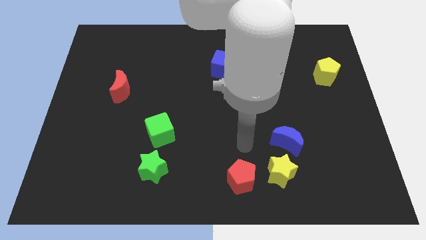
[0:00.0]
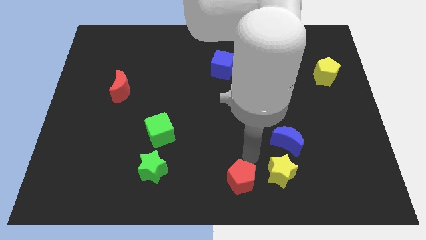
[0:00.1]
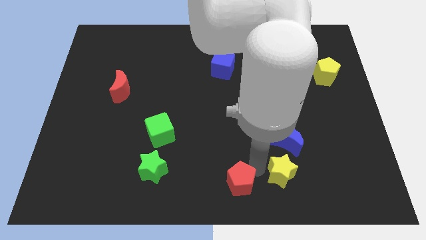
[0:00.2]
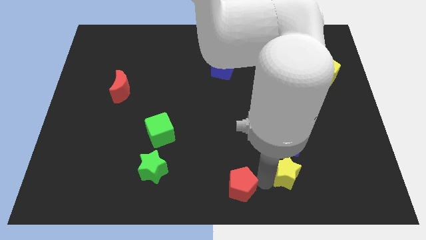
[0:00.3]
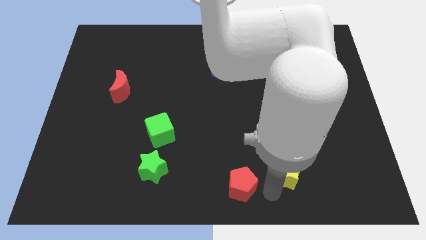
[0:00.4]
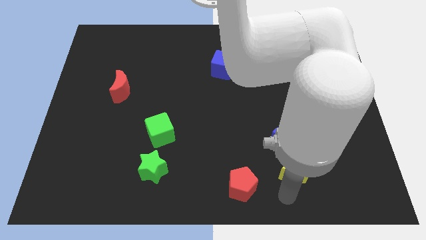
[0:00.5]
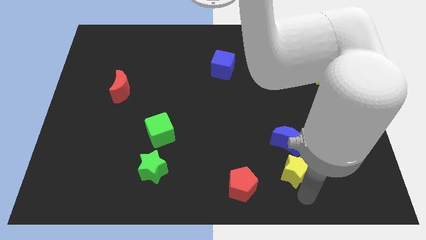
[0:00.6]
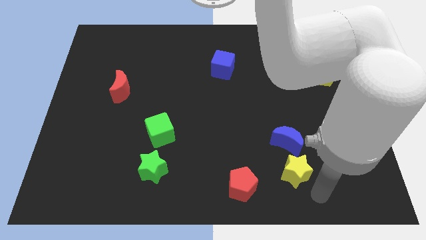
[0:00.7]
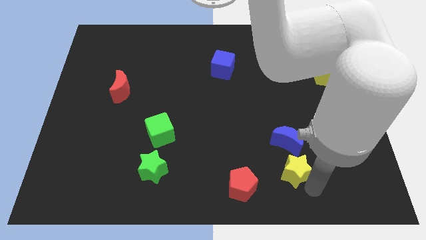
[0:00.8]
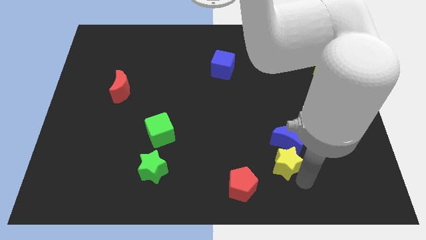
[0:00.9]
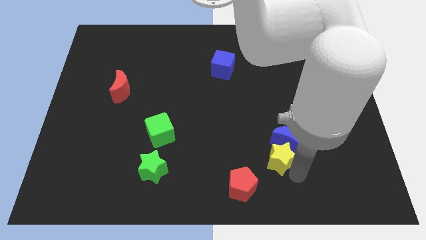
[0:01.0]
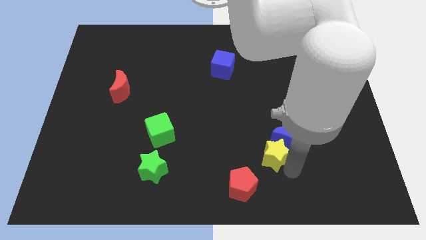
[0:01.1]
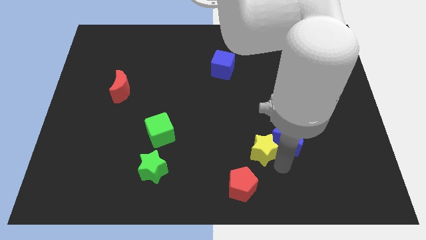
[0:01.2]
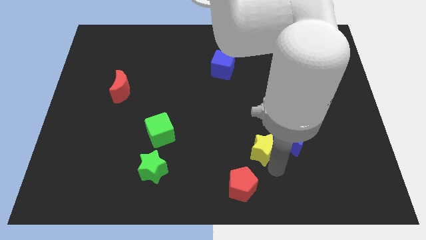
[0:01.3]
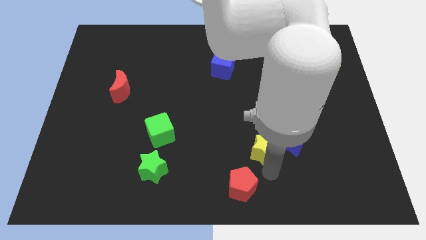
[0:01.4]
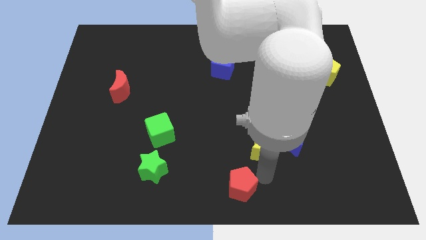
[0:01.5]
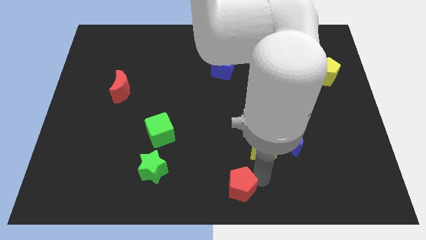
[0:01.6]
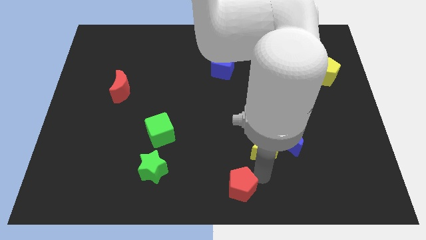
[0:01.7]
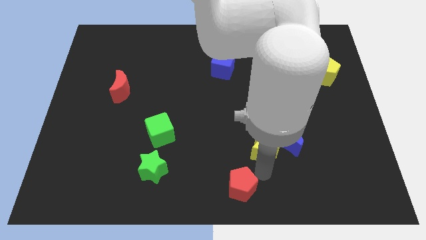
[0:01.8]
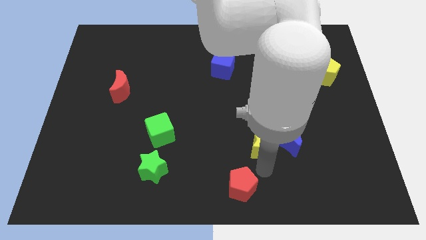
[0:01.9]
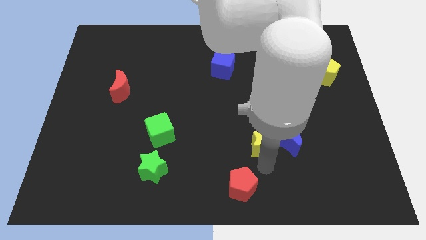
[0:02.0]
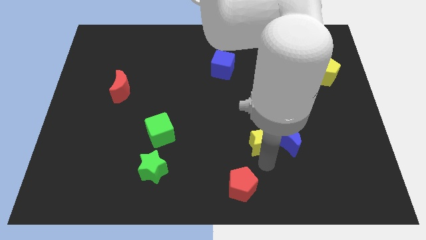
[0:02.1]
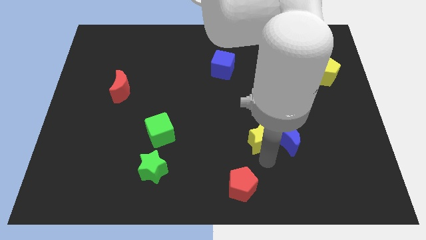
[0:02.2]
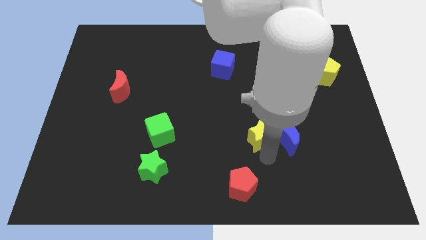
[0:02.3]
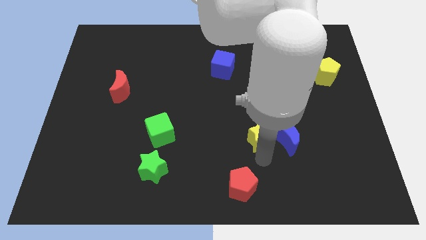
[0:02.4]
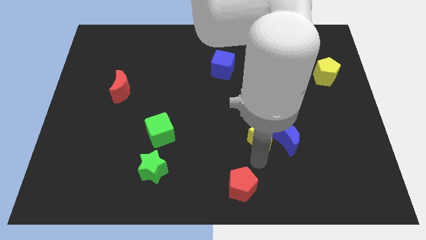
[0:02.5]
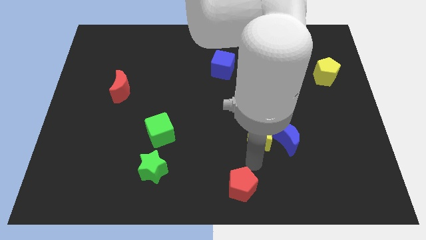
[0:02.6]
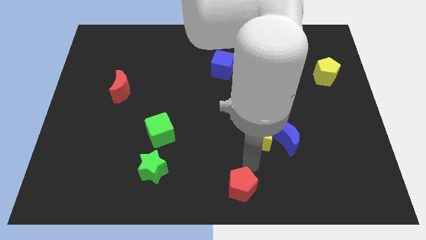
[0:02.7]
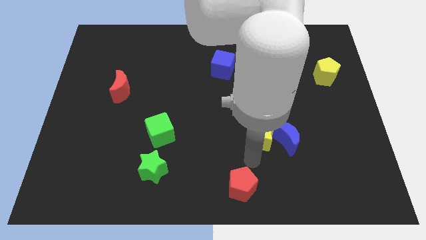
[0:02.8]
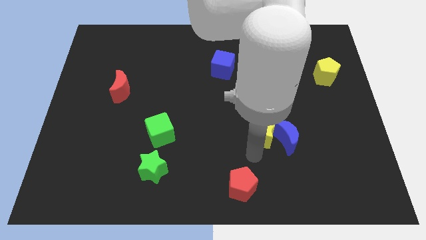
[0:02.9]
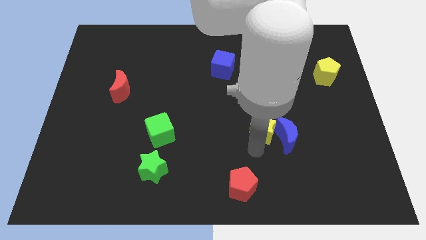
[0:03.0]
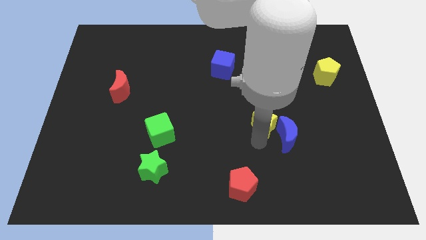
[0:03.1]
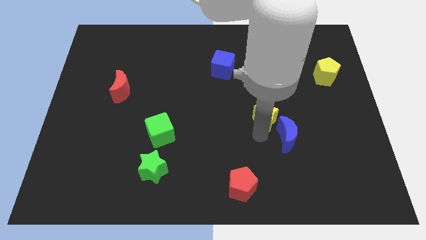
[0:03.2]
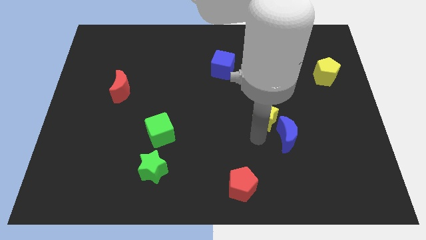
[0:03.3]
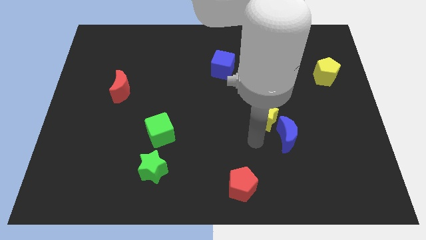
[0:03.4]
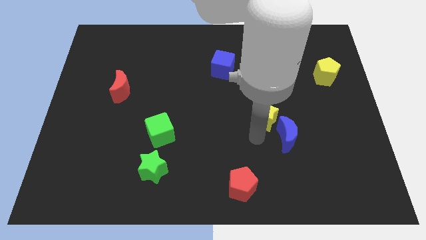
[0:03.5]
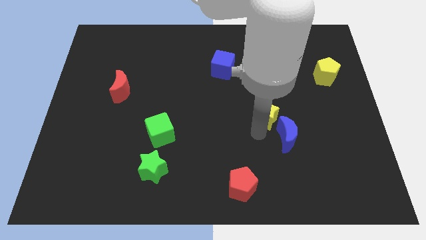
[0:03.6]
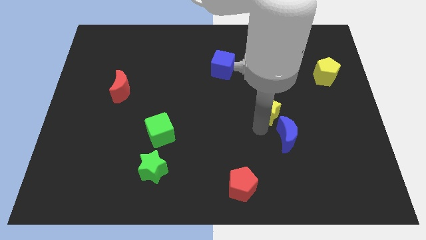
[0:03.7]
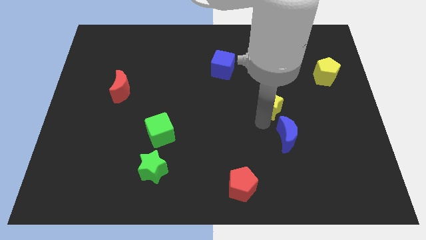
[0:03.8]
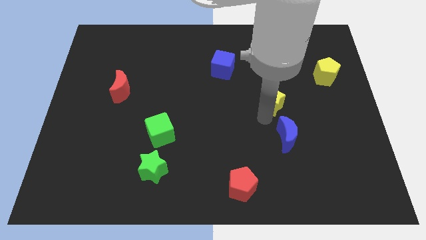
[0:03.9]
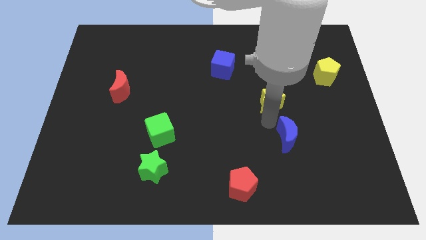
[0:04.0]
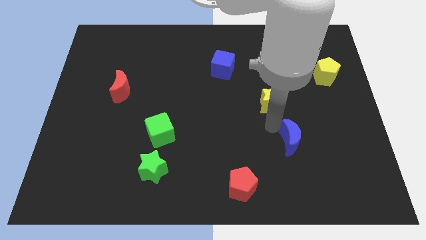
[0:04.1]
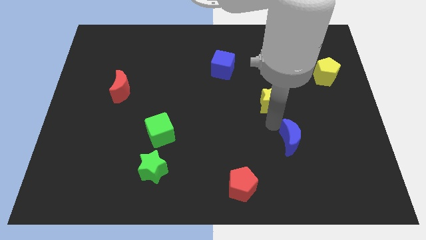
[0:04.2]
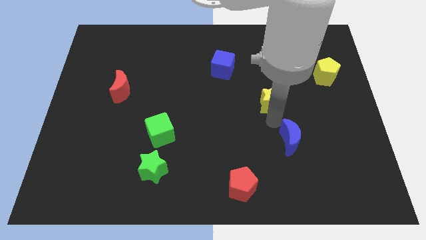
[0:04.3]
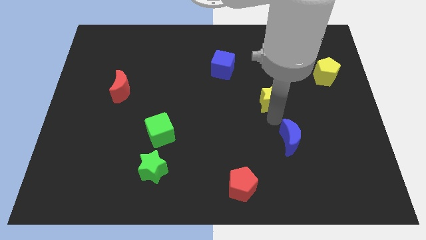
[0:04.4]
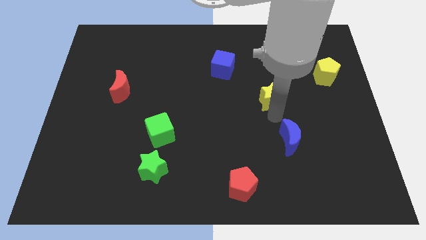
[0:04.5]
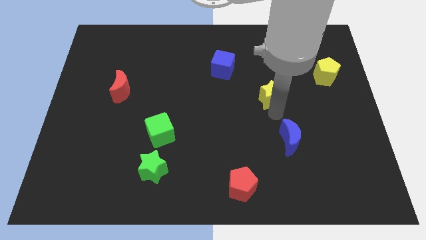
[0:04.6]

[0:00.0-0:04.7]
push the yellow star up

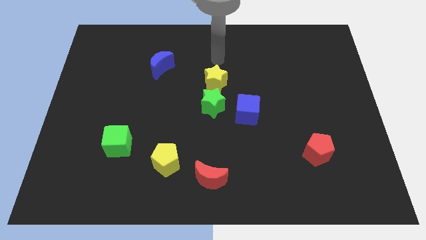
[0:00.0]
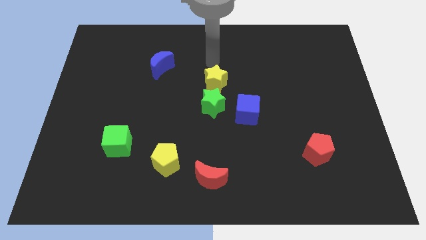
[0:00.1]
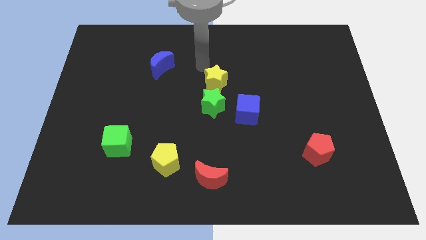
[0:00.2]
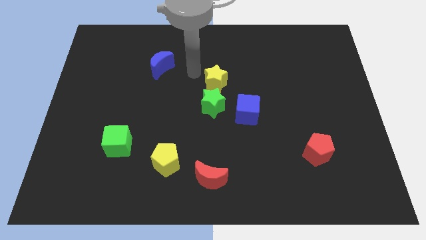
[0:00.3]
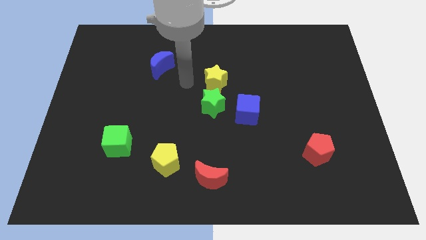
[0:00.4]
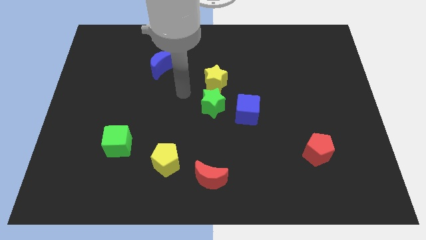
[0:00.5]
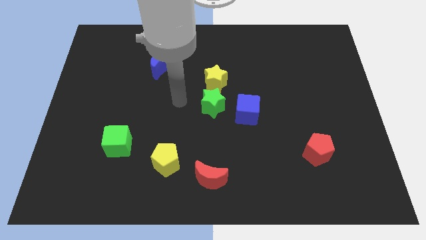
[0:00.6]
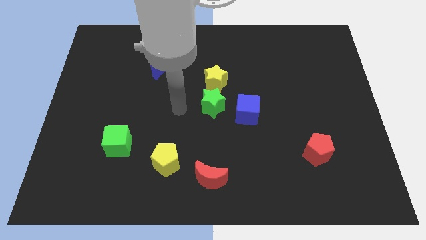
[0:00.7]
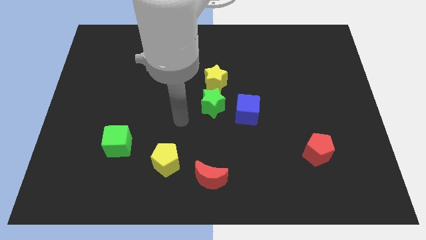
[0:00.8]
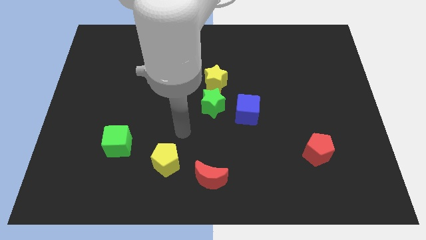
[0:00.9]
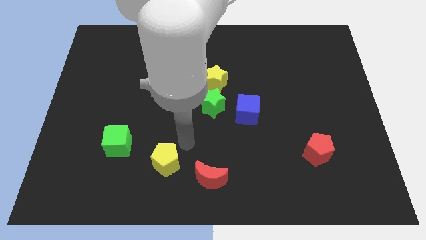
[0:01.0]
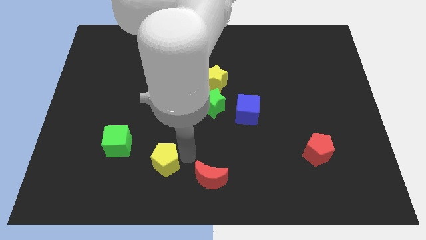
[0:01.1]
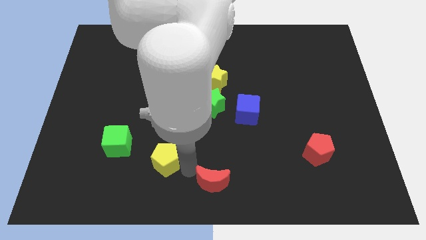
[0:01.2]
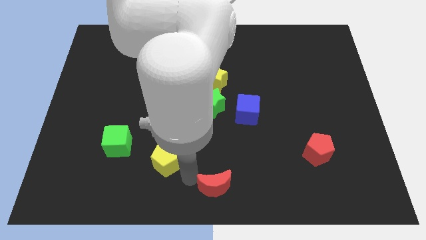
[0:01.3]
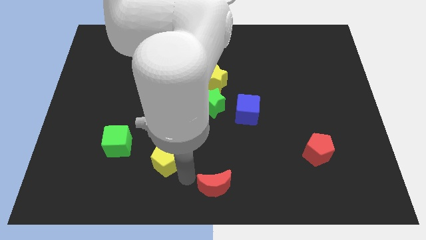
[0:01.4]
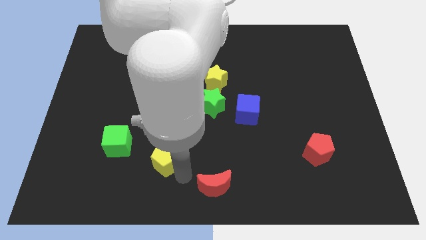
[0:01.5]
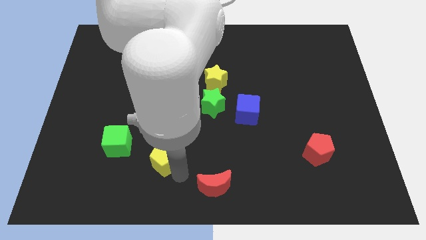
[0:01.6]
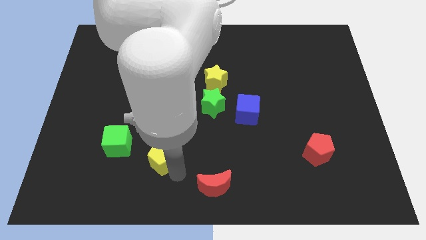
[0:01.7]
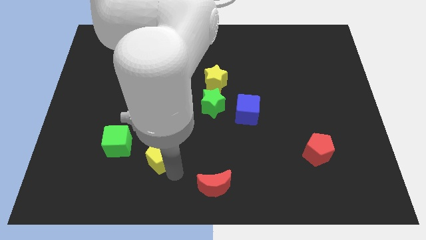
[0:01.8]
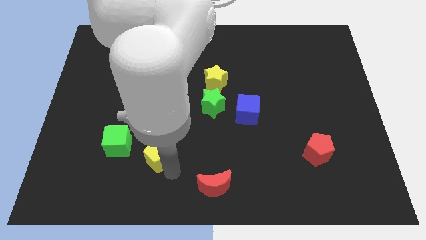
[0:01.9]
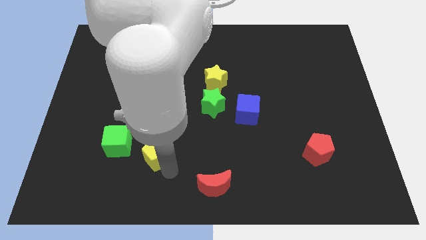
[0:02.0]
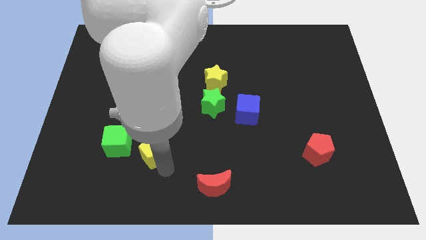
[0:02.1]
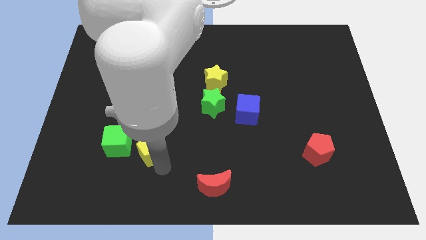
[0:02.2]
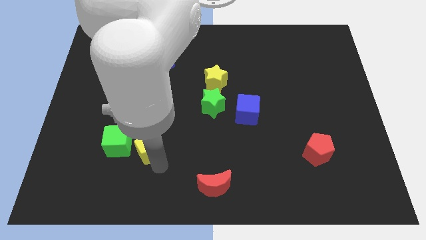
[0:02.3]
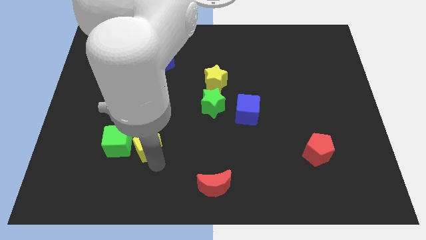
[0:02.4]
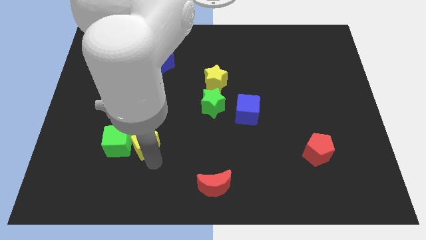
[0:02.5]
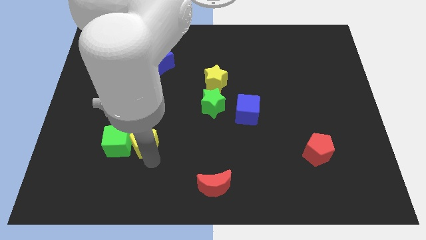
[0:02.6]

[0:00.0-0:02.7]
slightly push the yellow pentagon up and left diagonally

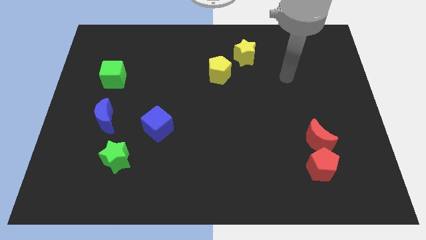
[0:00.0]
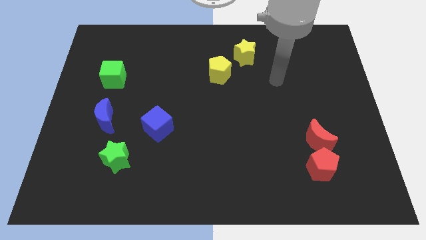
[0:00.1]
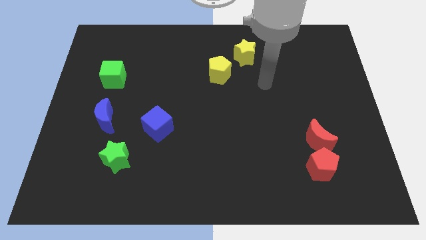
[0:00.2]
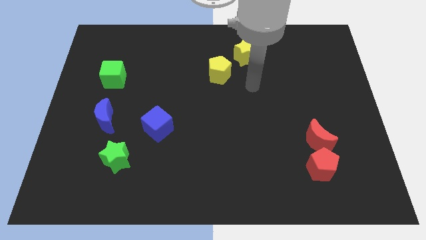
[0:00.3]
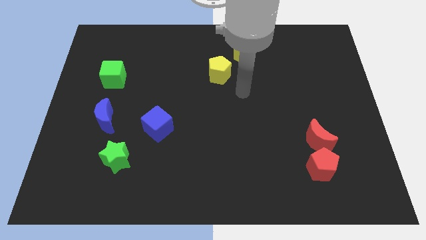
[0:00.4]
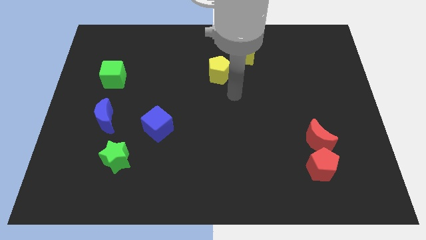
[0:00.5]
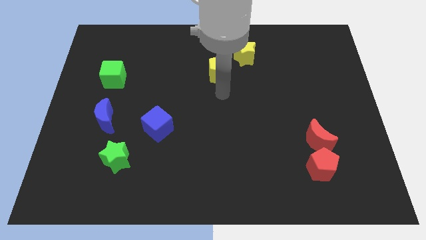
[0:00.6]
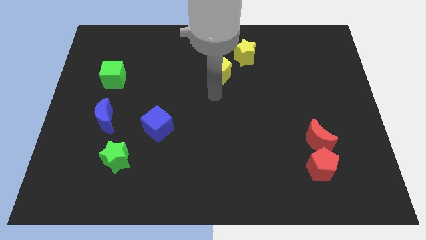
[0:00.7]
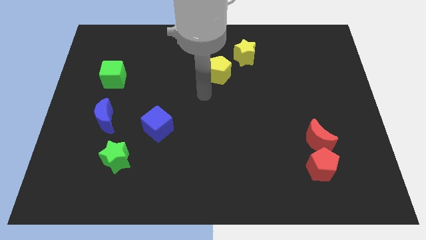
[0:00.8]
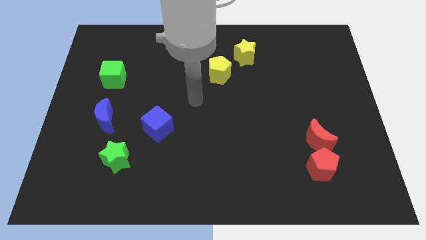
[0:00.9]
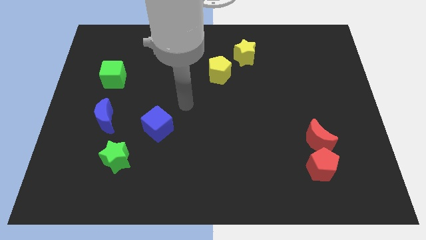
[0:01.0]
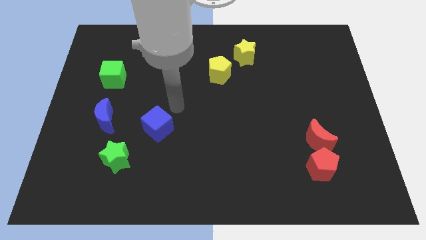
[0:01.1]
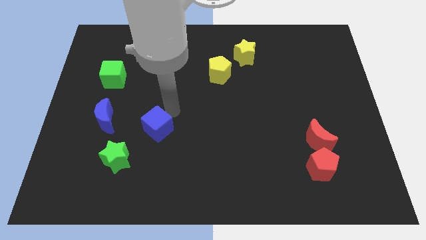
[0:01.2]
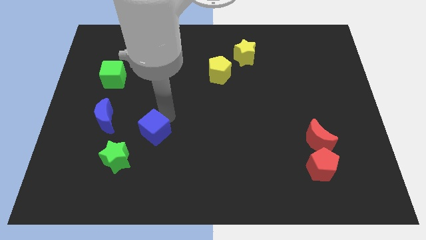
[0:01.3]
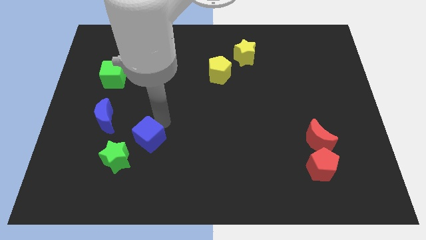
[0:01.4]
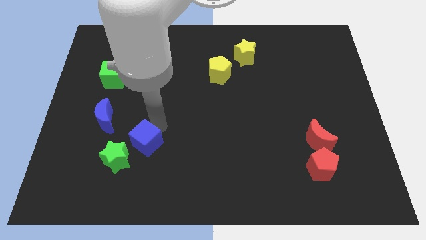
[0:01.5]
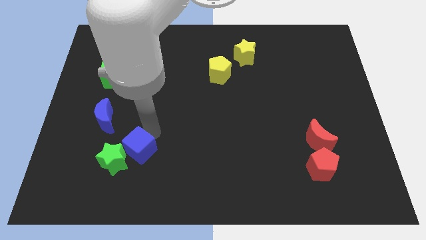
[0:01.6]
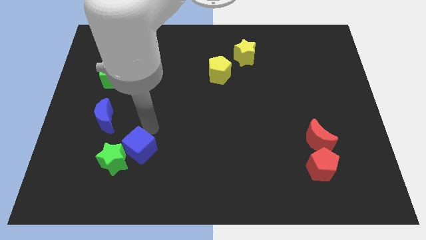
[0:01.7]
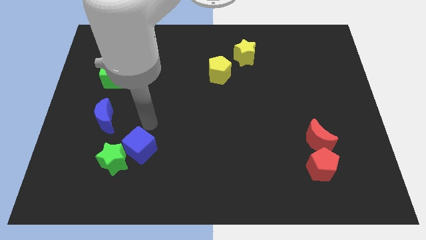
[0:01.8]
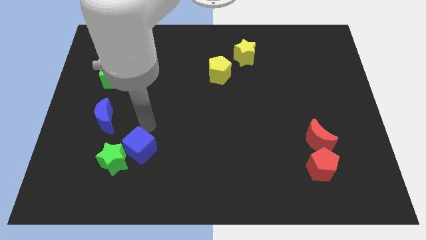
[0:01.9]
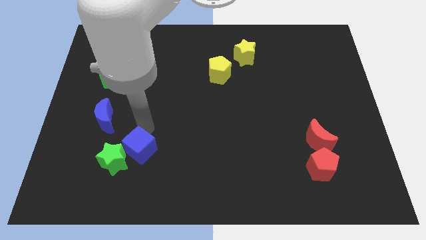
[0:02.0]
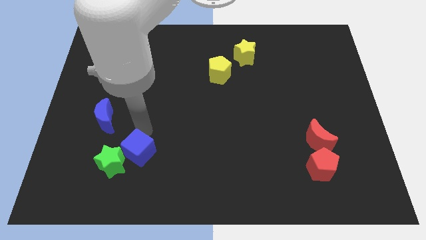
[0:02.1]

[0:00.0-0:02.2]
move the blue cube diagonally downwards and left a bit
